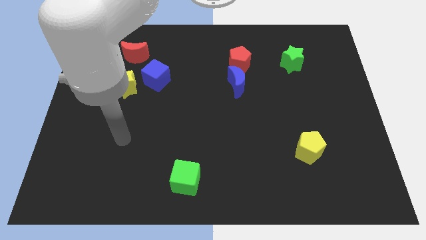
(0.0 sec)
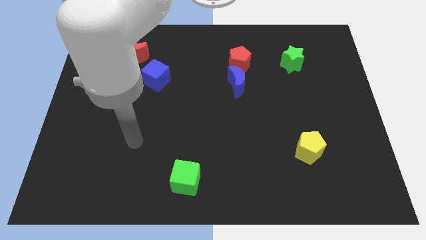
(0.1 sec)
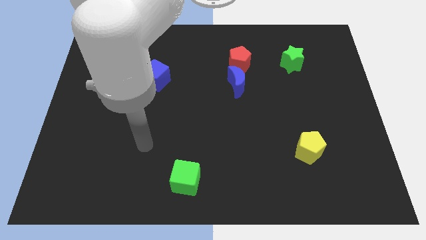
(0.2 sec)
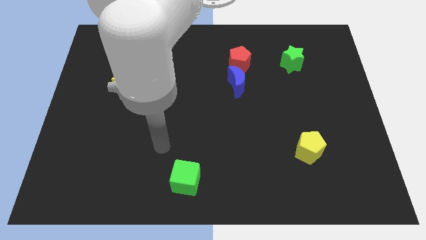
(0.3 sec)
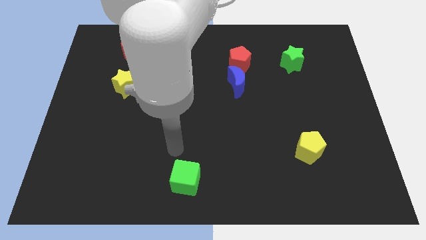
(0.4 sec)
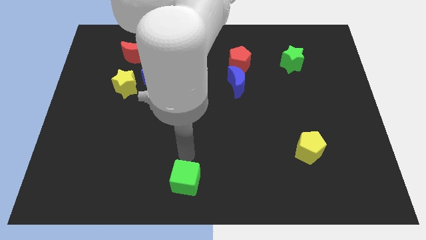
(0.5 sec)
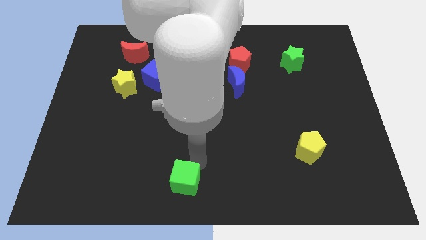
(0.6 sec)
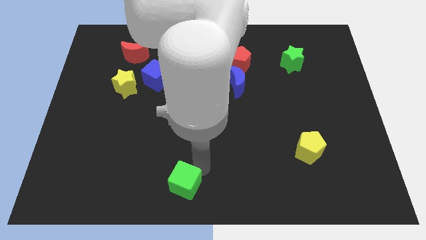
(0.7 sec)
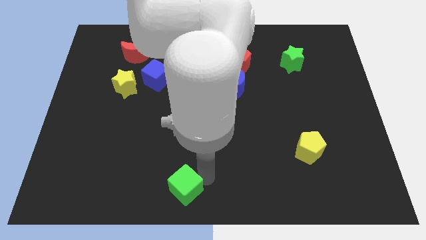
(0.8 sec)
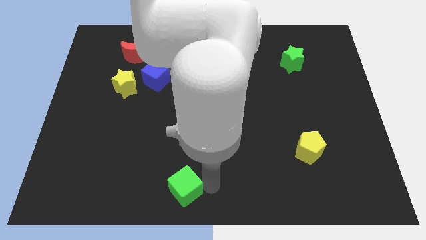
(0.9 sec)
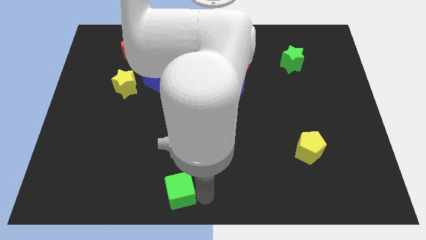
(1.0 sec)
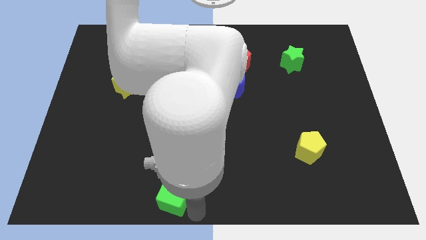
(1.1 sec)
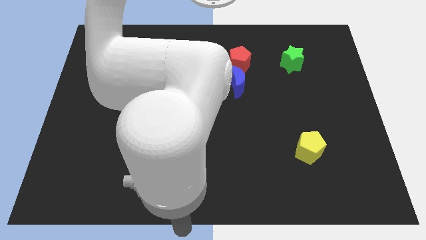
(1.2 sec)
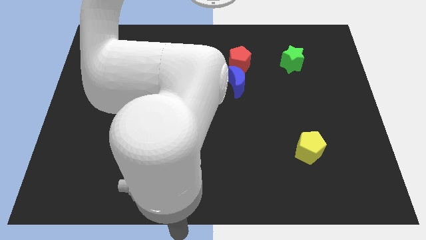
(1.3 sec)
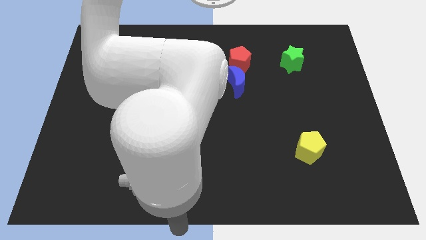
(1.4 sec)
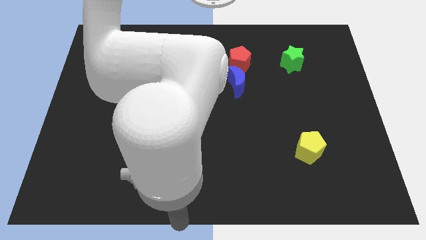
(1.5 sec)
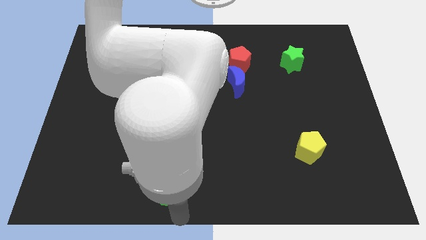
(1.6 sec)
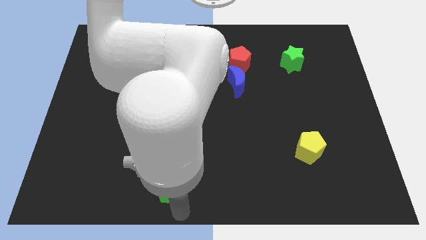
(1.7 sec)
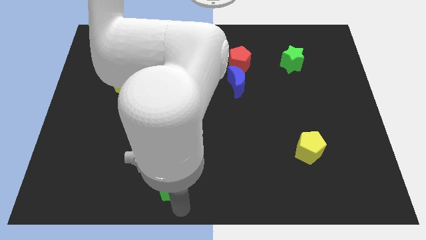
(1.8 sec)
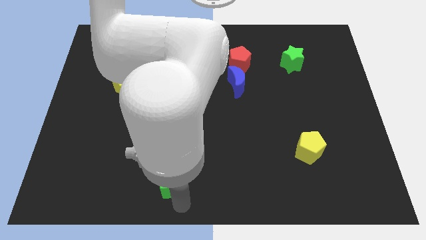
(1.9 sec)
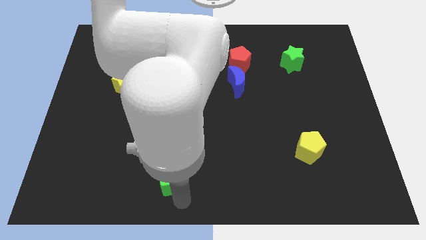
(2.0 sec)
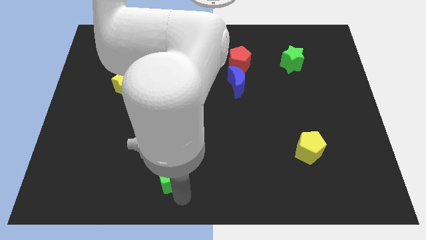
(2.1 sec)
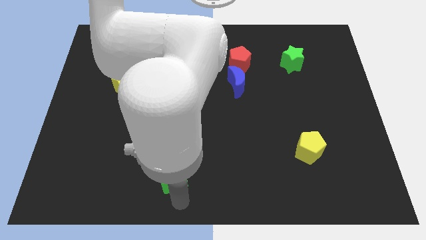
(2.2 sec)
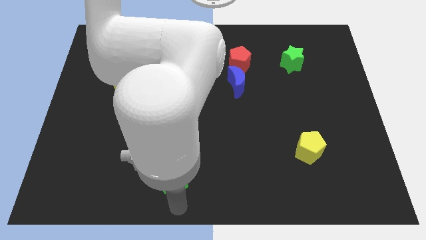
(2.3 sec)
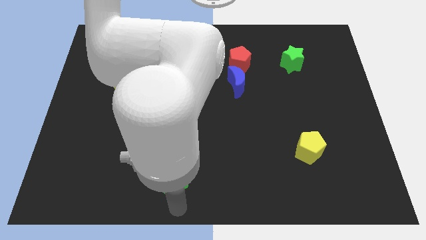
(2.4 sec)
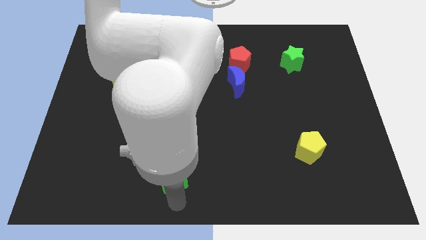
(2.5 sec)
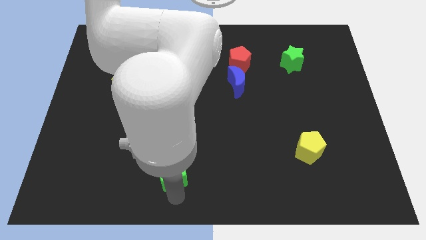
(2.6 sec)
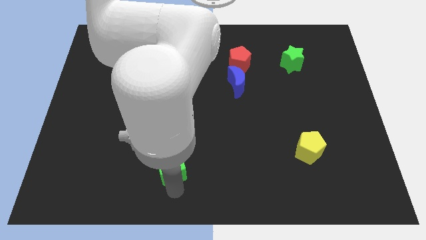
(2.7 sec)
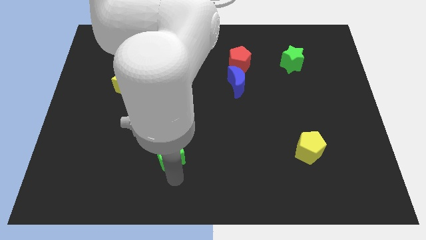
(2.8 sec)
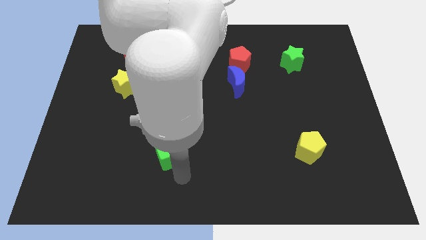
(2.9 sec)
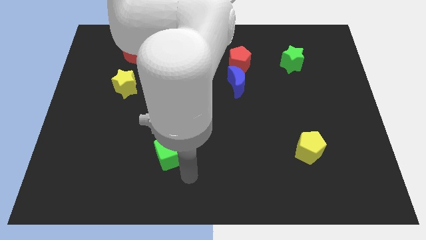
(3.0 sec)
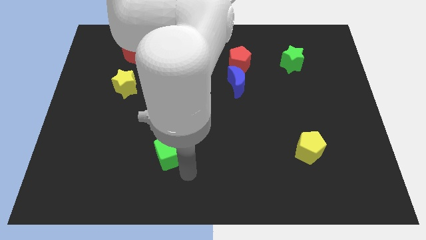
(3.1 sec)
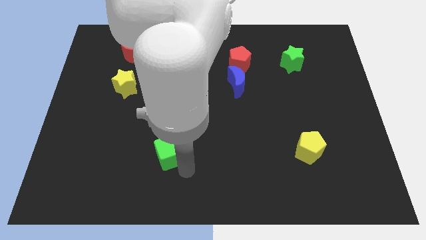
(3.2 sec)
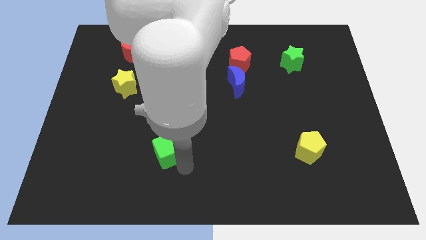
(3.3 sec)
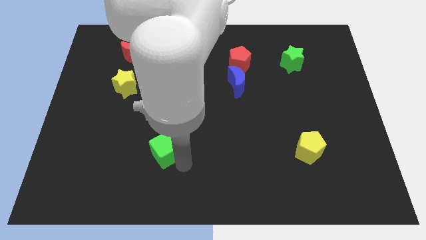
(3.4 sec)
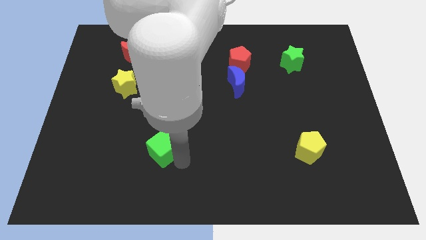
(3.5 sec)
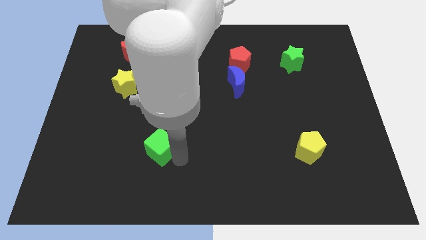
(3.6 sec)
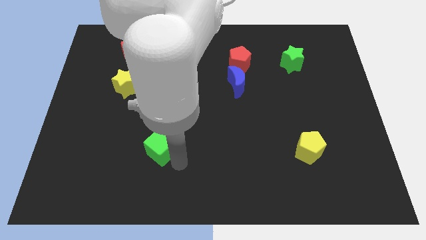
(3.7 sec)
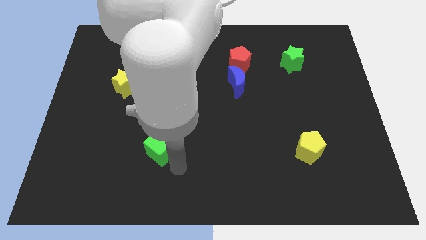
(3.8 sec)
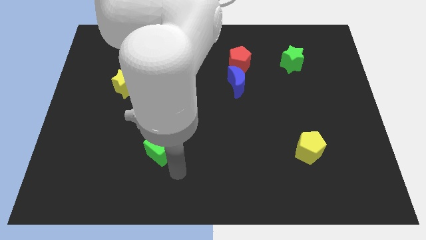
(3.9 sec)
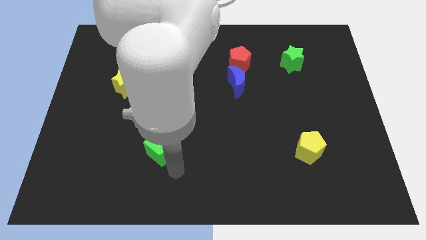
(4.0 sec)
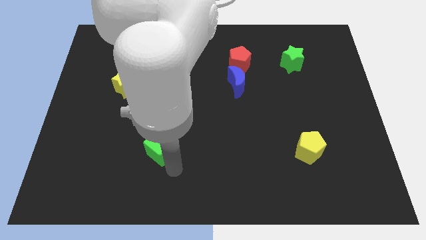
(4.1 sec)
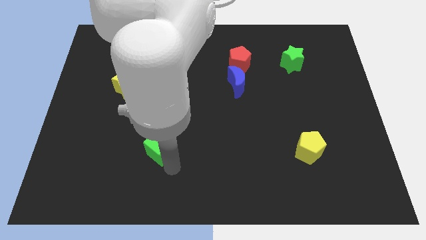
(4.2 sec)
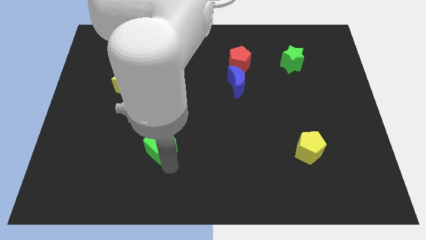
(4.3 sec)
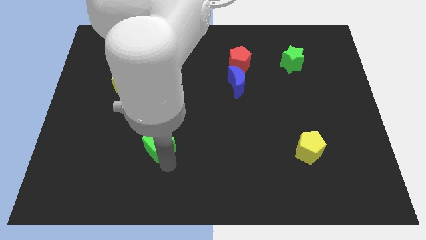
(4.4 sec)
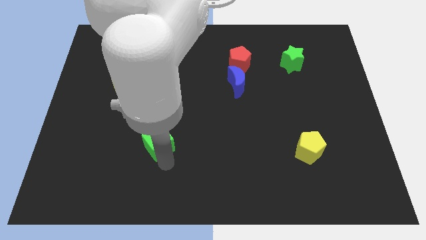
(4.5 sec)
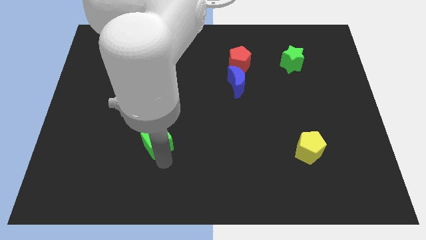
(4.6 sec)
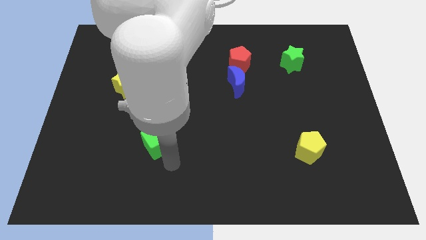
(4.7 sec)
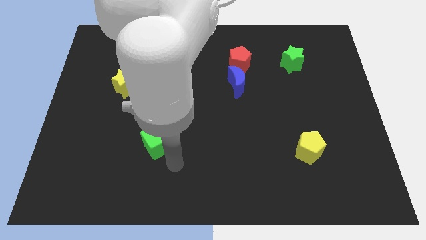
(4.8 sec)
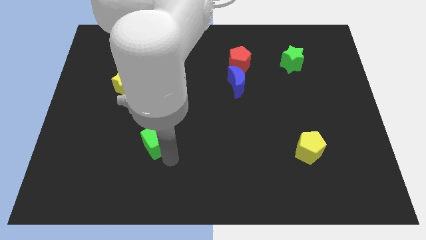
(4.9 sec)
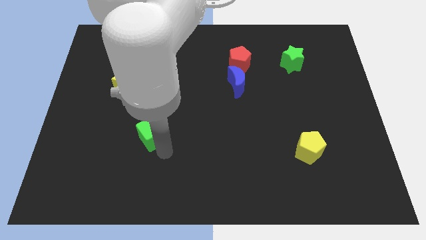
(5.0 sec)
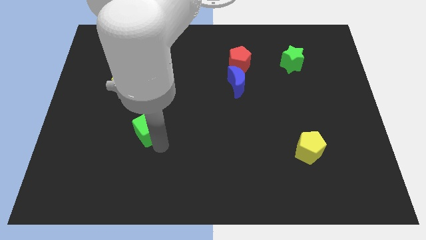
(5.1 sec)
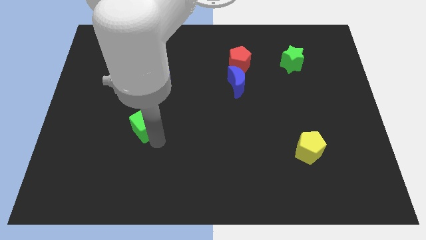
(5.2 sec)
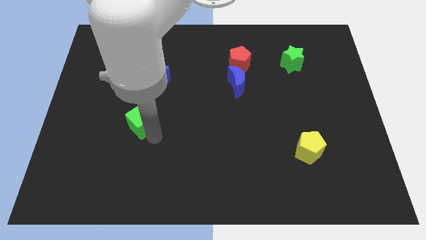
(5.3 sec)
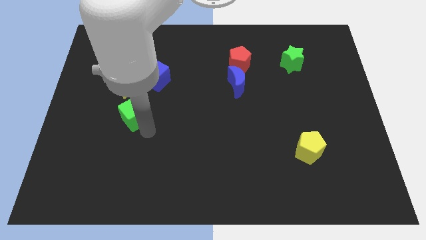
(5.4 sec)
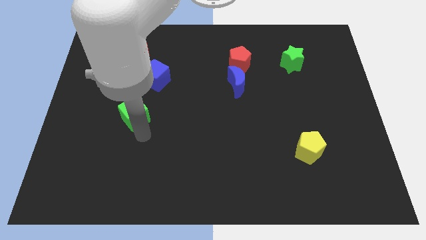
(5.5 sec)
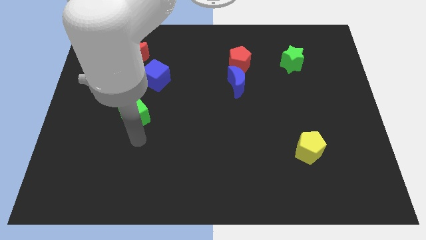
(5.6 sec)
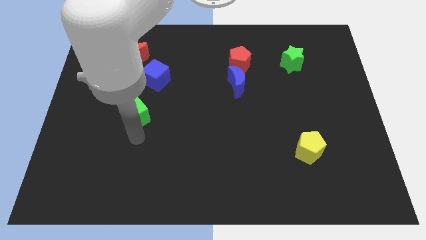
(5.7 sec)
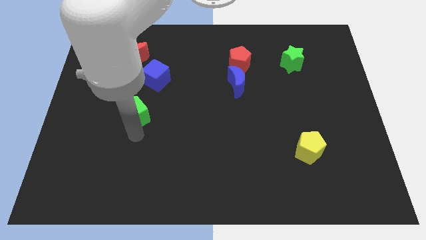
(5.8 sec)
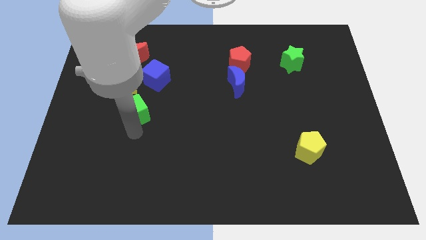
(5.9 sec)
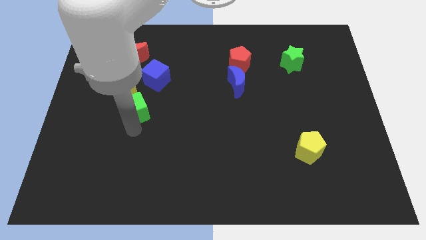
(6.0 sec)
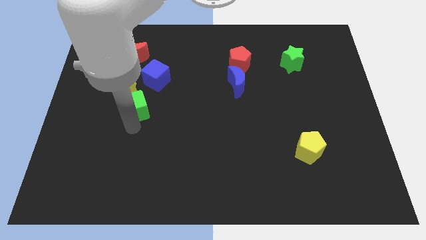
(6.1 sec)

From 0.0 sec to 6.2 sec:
move the green cube to the bottom left side of the blue cube

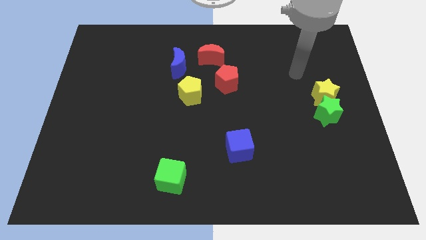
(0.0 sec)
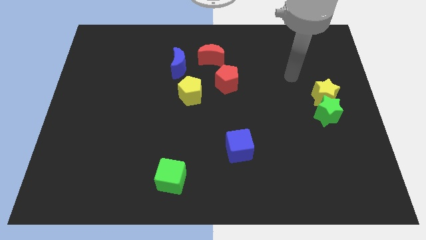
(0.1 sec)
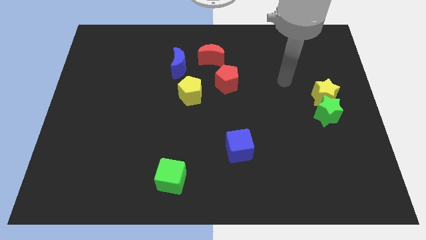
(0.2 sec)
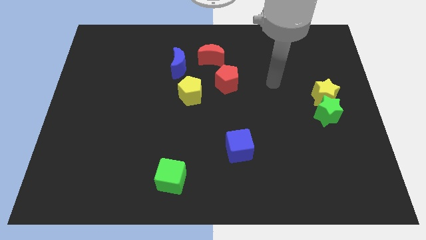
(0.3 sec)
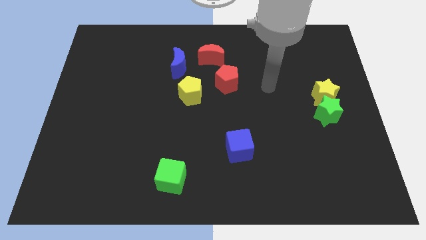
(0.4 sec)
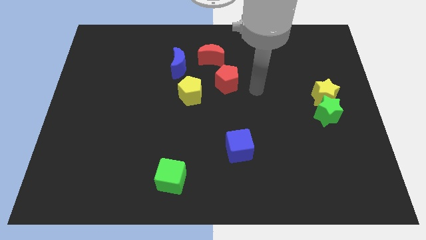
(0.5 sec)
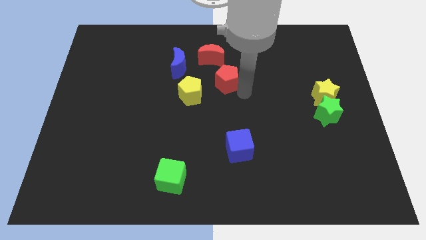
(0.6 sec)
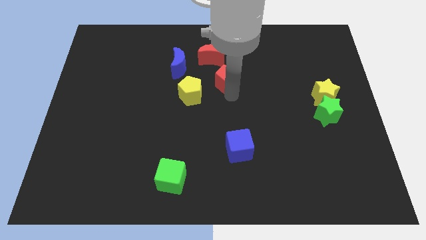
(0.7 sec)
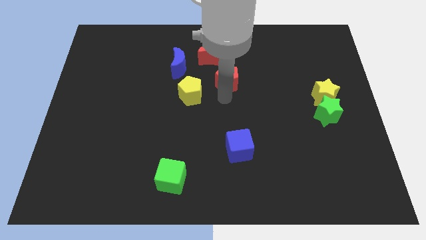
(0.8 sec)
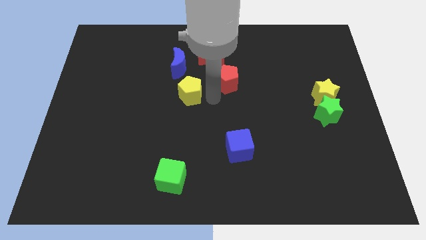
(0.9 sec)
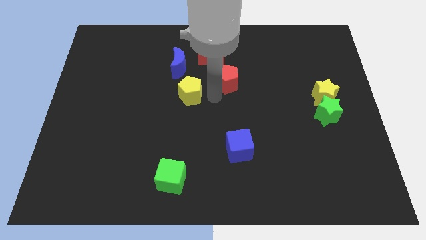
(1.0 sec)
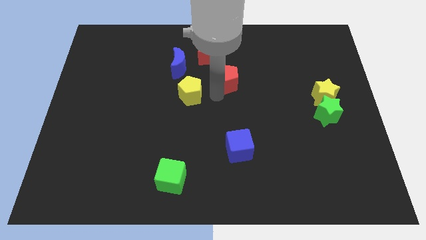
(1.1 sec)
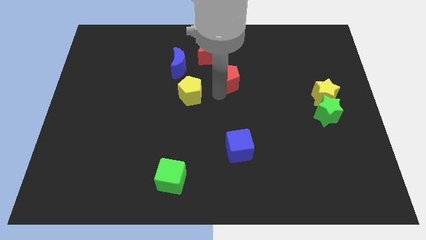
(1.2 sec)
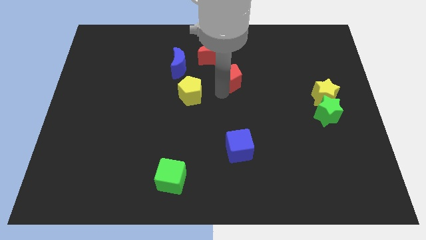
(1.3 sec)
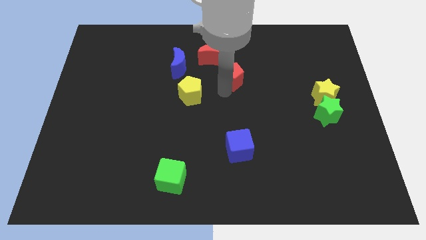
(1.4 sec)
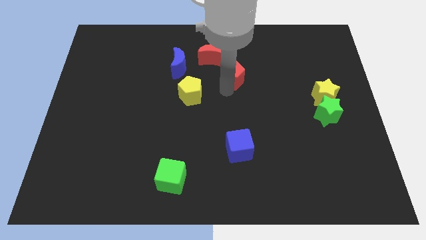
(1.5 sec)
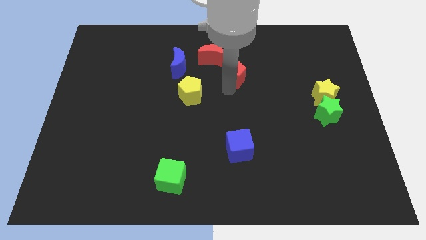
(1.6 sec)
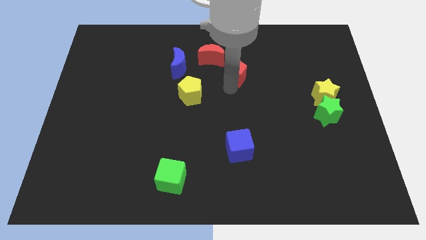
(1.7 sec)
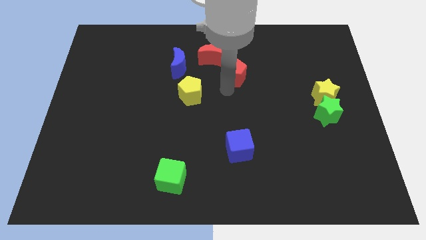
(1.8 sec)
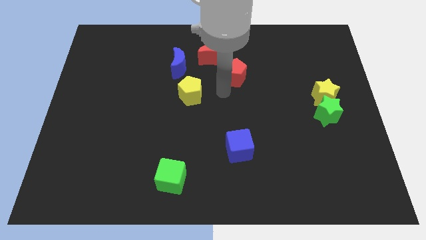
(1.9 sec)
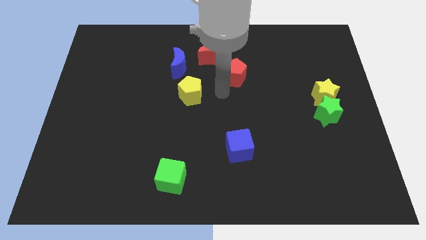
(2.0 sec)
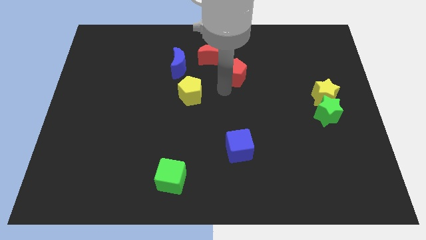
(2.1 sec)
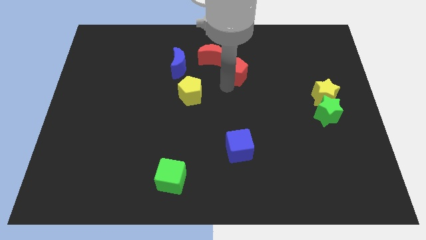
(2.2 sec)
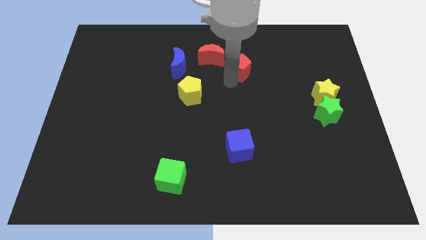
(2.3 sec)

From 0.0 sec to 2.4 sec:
move the red pentagon to the right of the red moon
